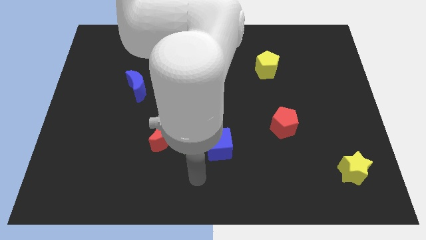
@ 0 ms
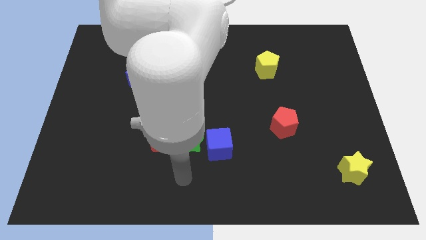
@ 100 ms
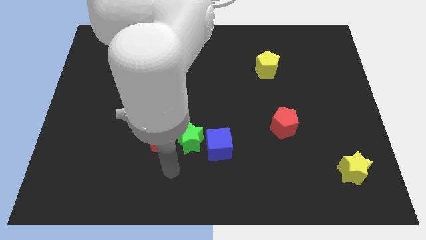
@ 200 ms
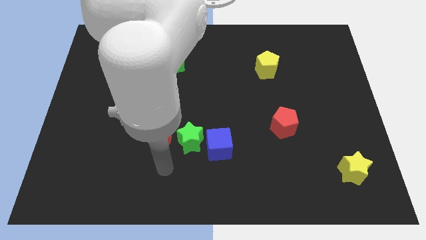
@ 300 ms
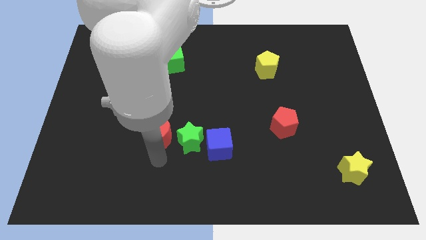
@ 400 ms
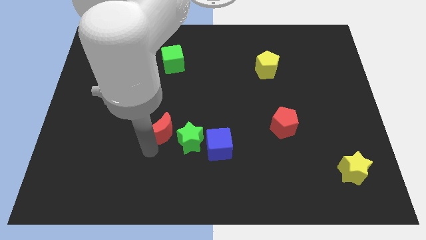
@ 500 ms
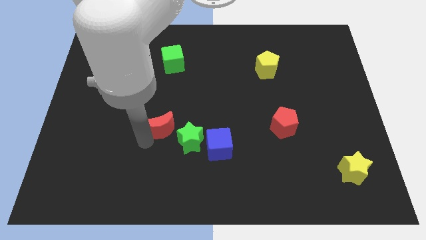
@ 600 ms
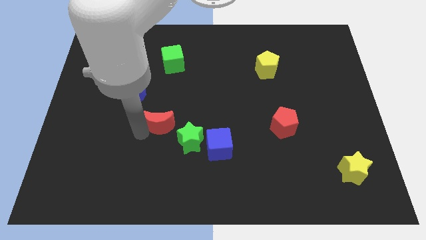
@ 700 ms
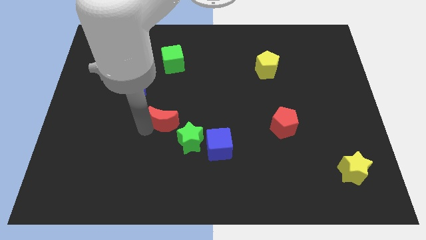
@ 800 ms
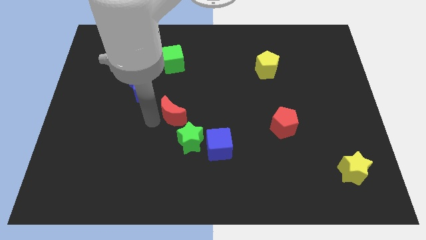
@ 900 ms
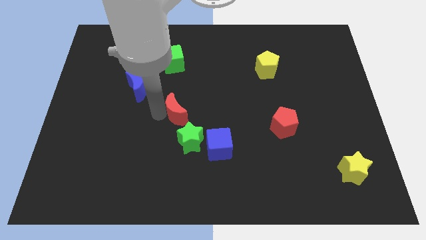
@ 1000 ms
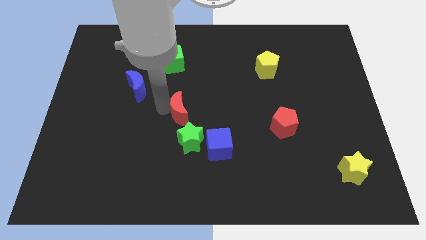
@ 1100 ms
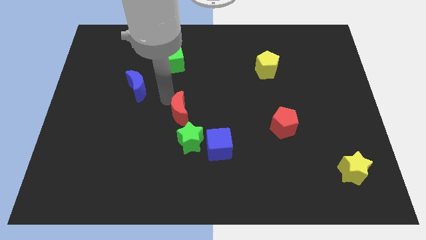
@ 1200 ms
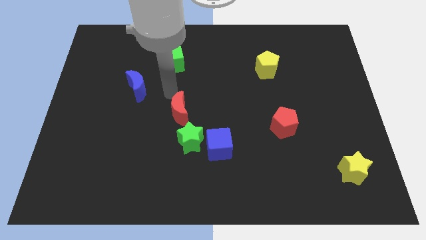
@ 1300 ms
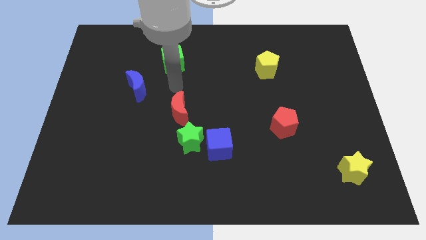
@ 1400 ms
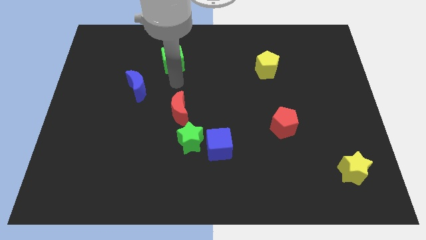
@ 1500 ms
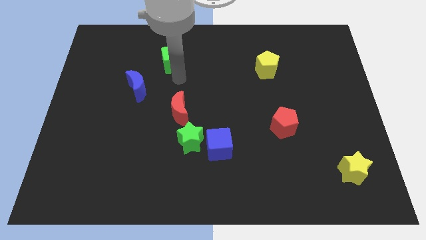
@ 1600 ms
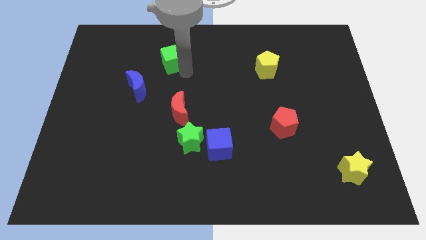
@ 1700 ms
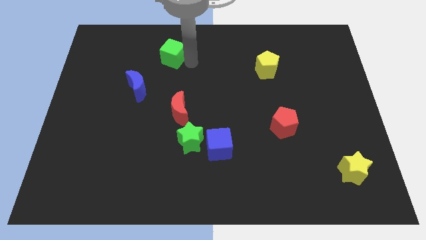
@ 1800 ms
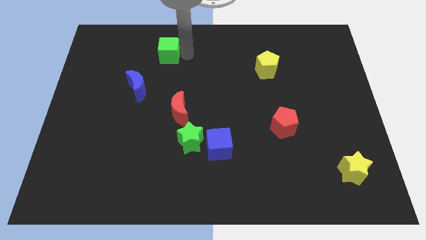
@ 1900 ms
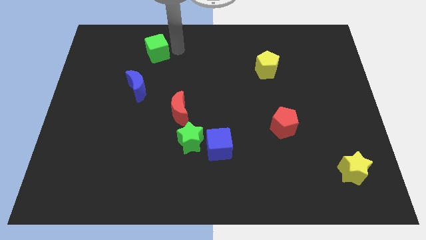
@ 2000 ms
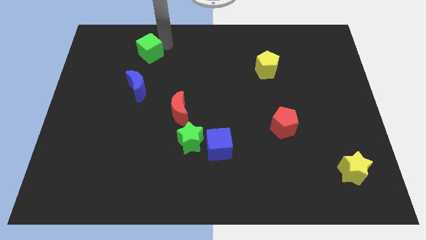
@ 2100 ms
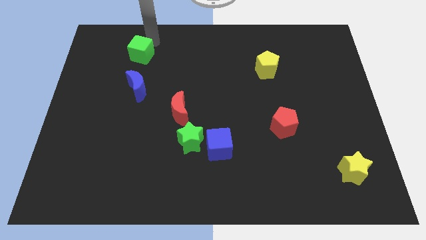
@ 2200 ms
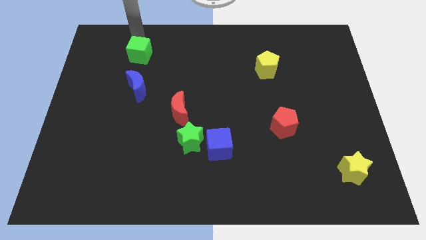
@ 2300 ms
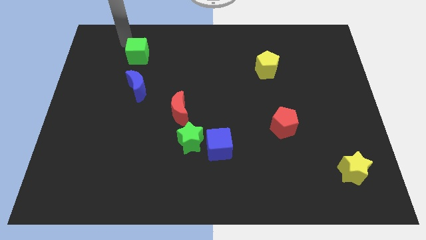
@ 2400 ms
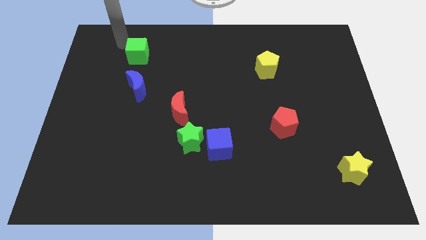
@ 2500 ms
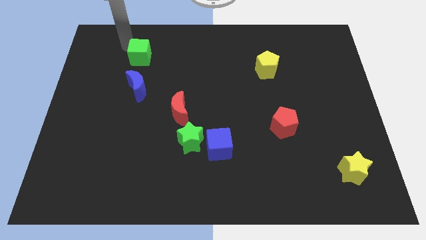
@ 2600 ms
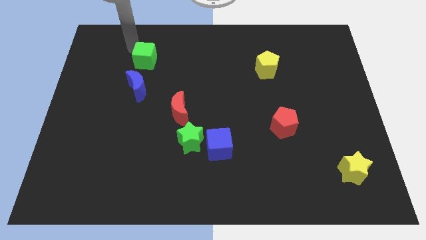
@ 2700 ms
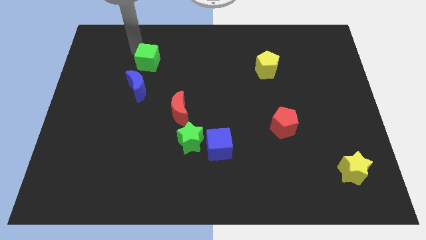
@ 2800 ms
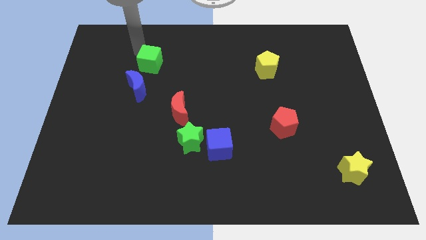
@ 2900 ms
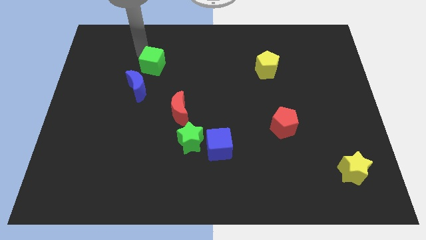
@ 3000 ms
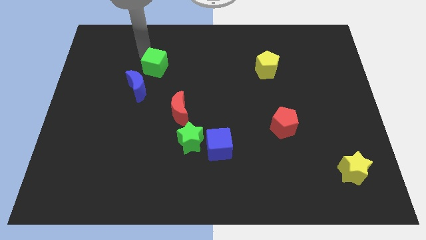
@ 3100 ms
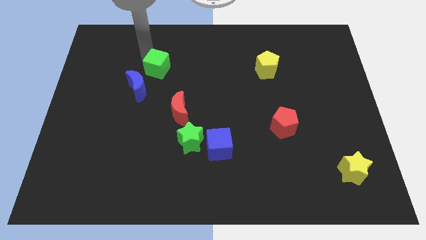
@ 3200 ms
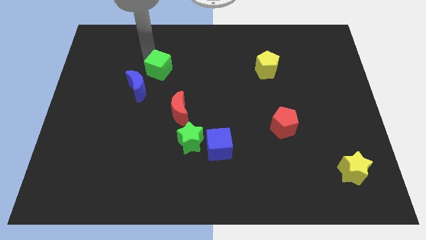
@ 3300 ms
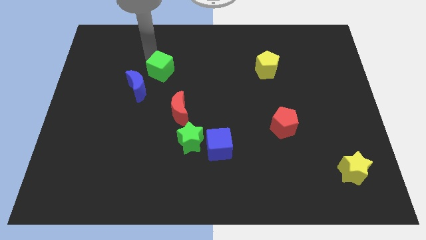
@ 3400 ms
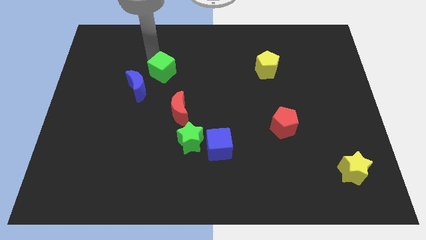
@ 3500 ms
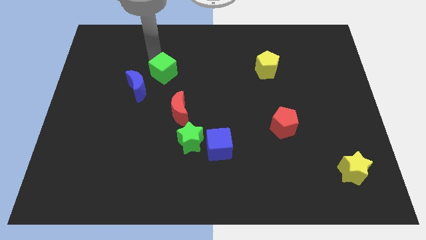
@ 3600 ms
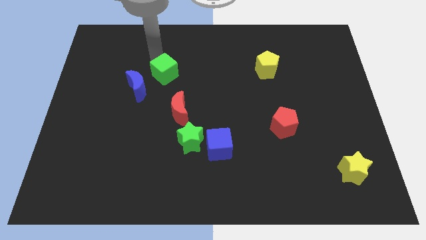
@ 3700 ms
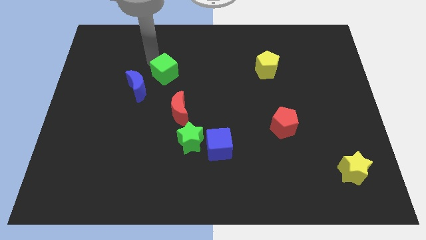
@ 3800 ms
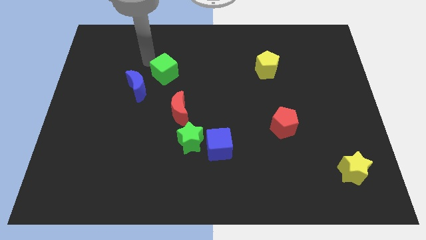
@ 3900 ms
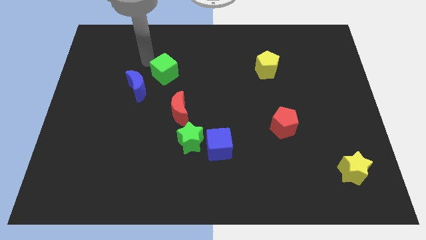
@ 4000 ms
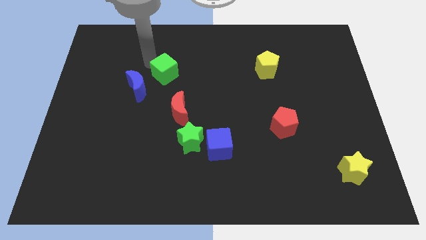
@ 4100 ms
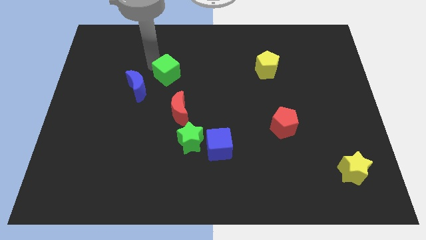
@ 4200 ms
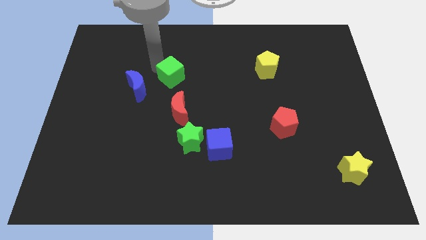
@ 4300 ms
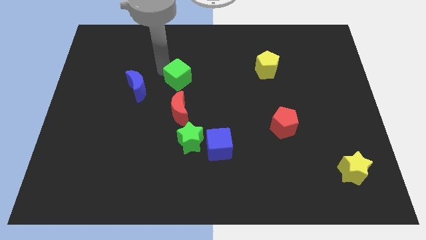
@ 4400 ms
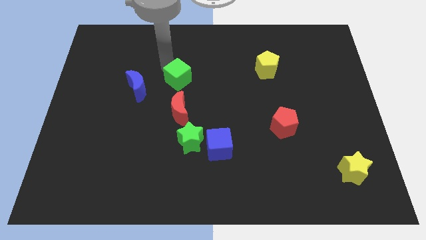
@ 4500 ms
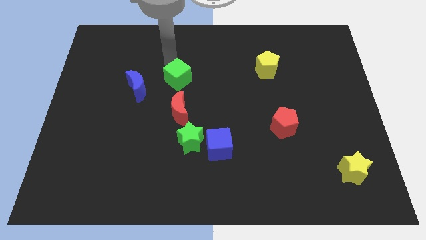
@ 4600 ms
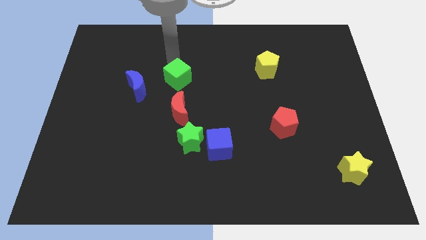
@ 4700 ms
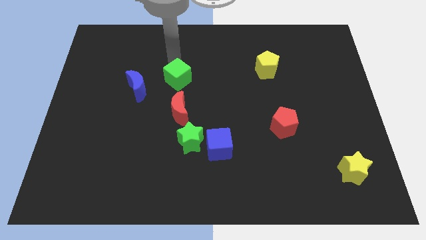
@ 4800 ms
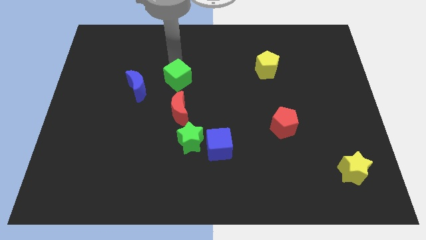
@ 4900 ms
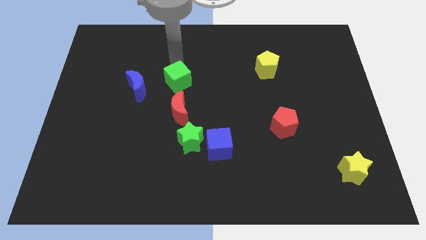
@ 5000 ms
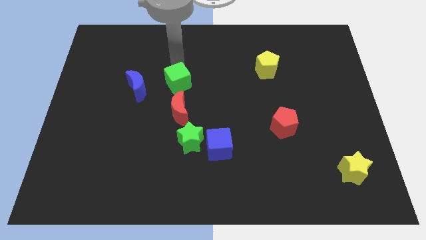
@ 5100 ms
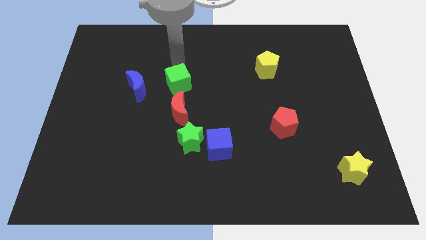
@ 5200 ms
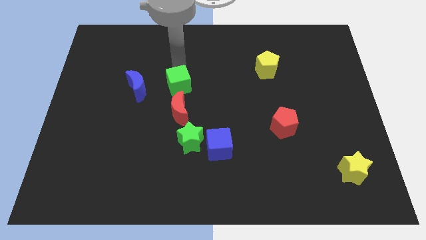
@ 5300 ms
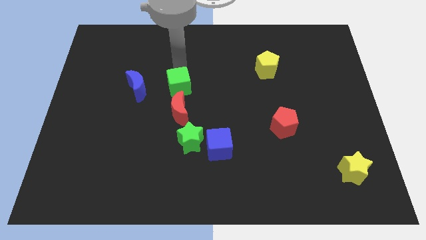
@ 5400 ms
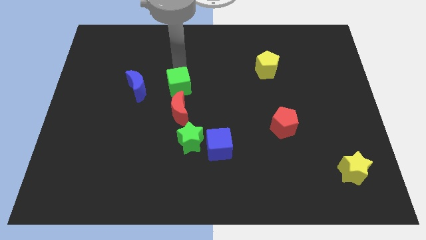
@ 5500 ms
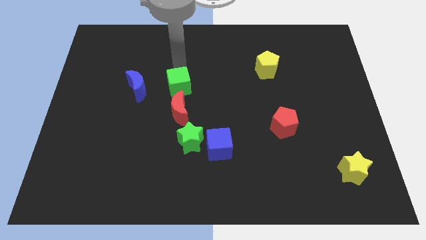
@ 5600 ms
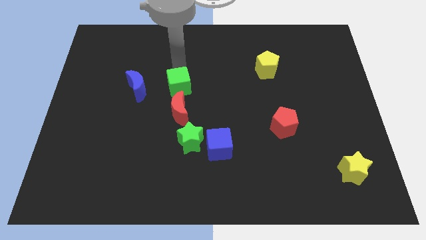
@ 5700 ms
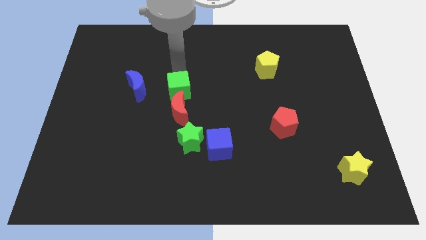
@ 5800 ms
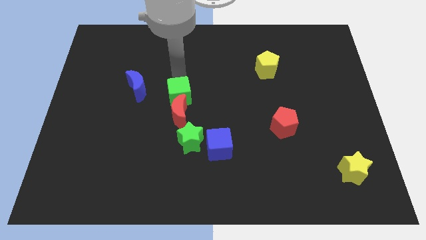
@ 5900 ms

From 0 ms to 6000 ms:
slide the green cube next to the red moon

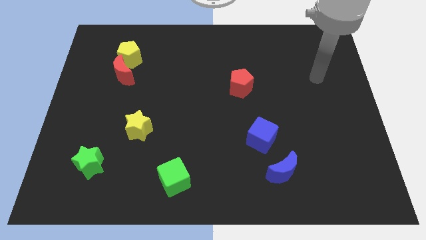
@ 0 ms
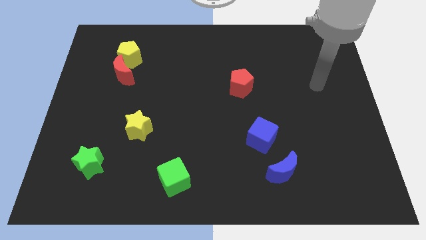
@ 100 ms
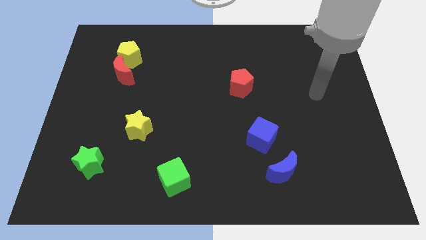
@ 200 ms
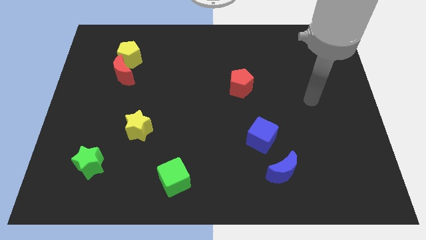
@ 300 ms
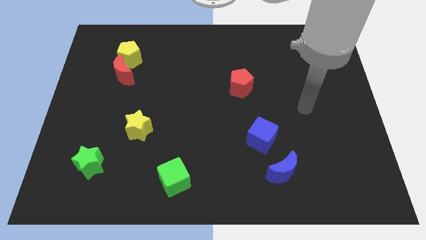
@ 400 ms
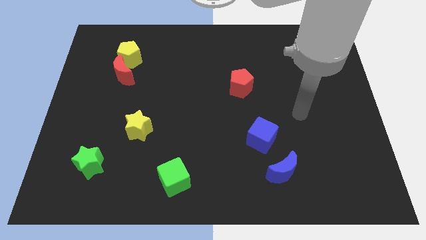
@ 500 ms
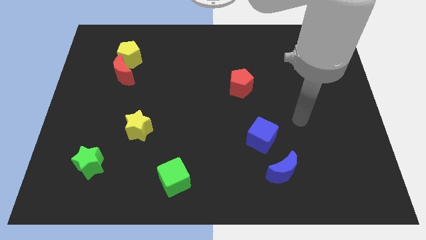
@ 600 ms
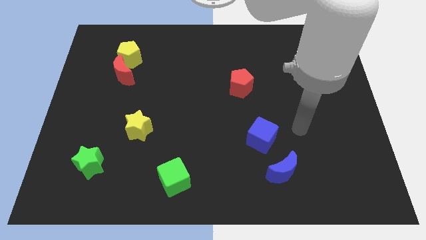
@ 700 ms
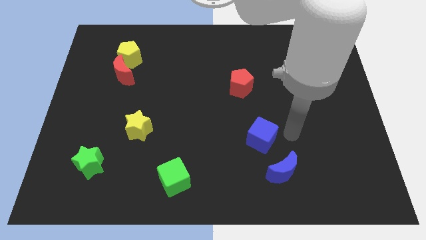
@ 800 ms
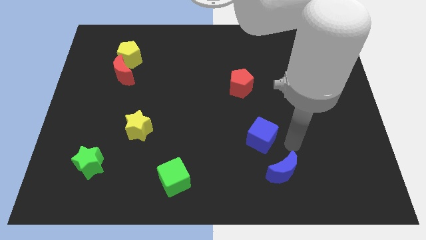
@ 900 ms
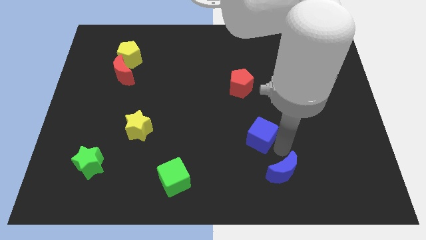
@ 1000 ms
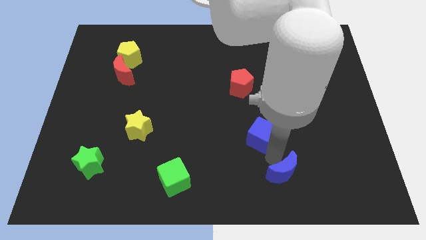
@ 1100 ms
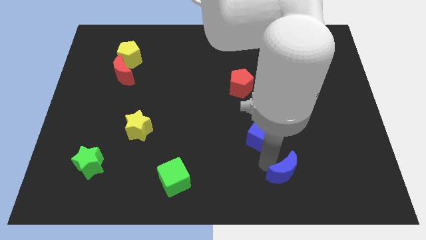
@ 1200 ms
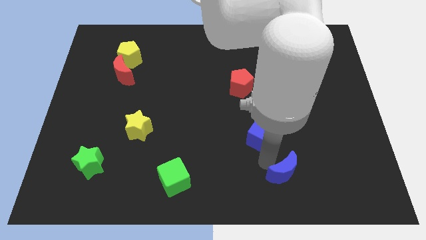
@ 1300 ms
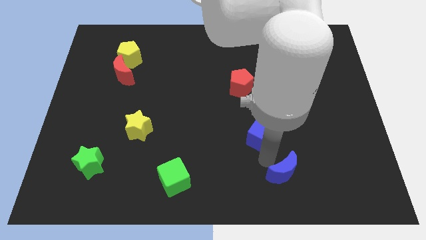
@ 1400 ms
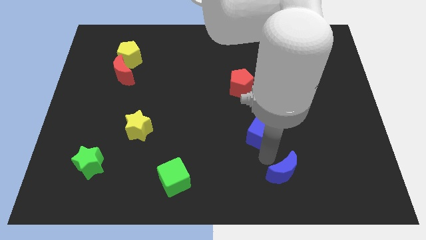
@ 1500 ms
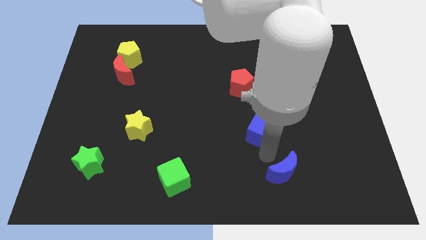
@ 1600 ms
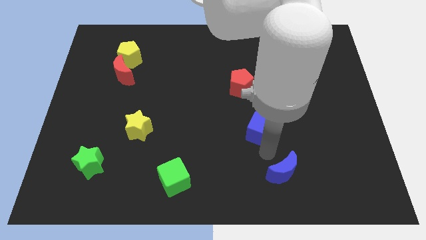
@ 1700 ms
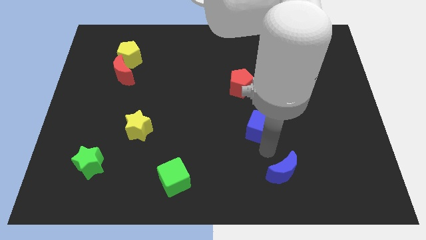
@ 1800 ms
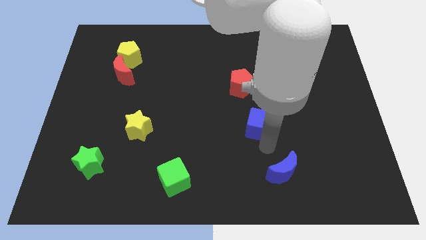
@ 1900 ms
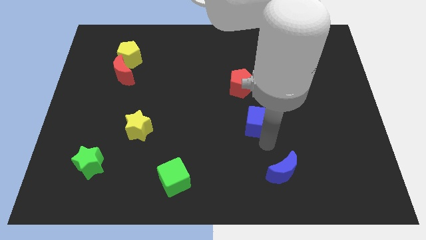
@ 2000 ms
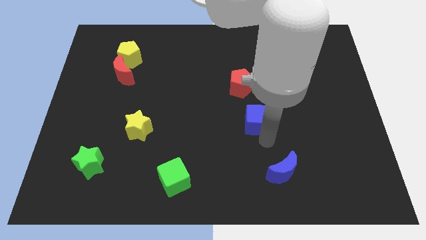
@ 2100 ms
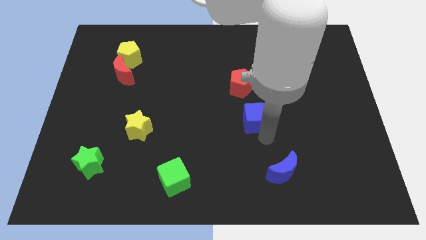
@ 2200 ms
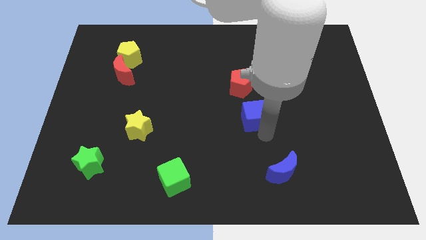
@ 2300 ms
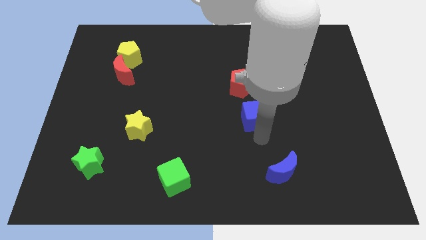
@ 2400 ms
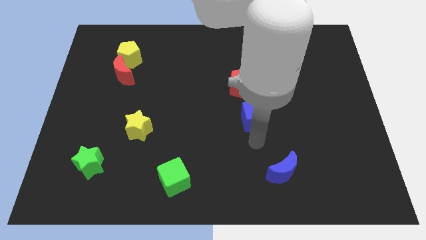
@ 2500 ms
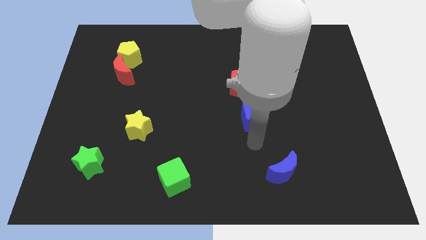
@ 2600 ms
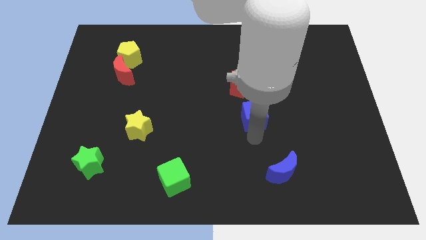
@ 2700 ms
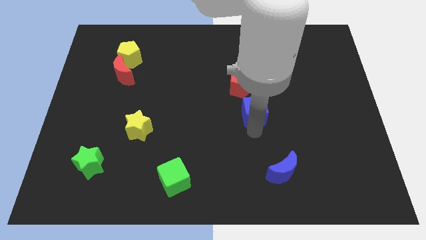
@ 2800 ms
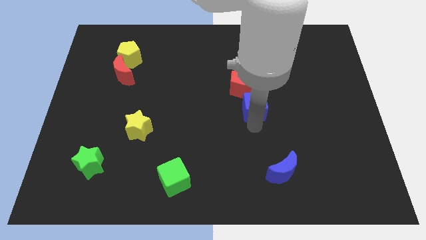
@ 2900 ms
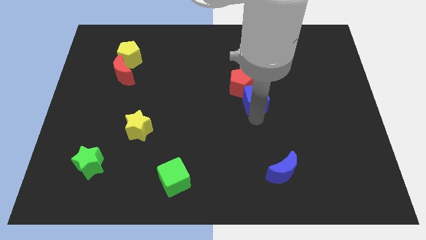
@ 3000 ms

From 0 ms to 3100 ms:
move the blue cube next to the red pentagon
